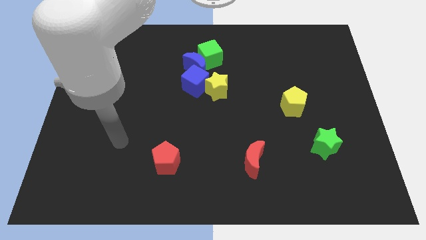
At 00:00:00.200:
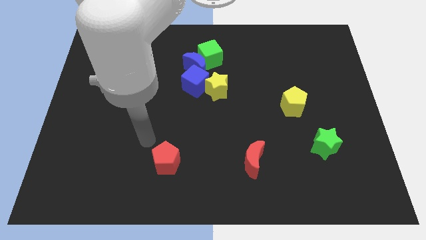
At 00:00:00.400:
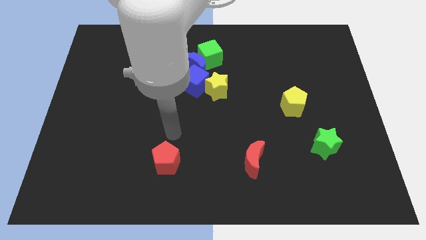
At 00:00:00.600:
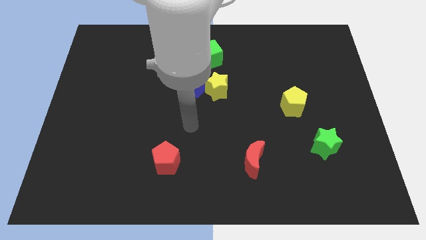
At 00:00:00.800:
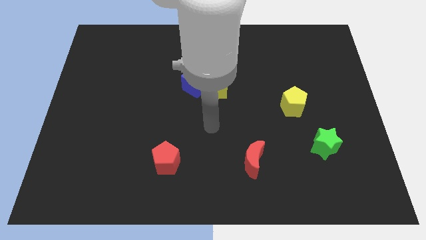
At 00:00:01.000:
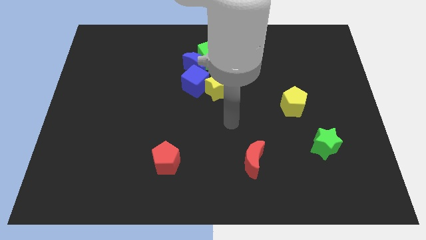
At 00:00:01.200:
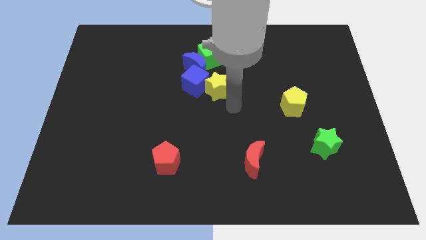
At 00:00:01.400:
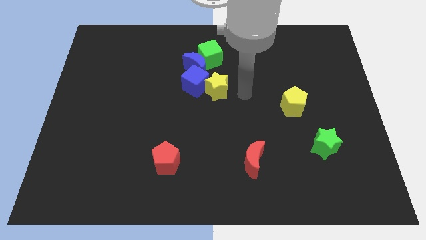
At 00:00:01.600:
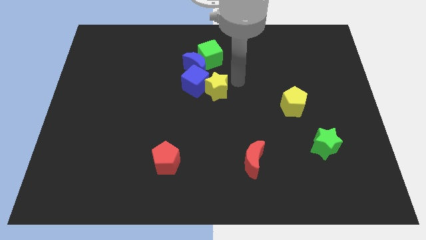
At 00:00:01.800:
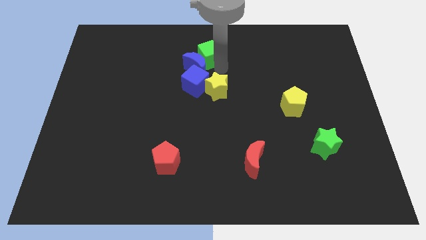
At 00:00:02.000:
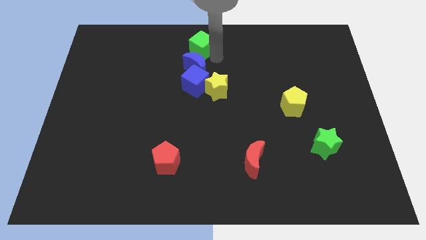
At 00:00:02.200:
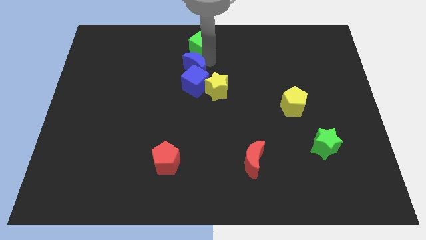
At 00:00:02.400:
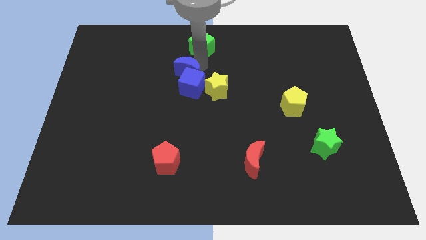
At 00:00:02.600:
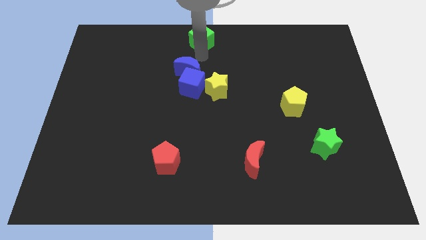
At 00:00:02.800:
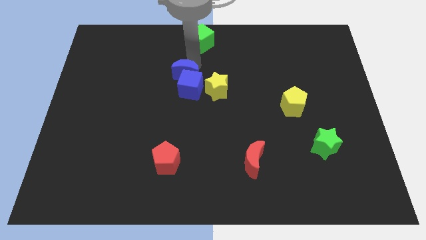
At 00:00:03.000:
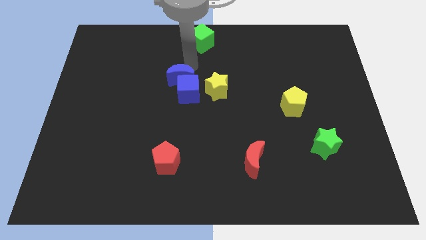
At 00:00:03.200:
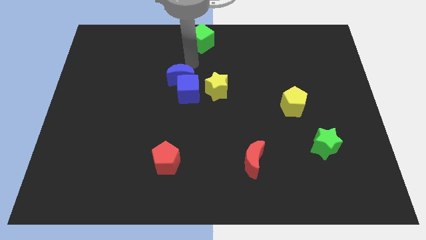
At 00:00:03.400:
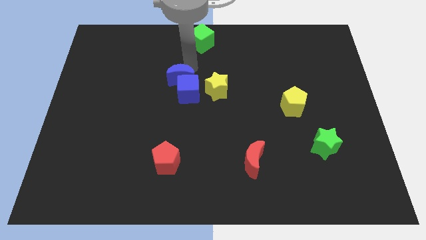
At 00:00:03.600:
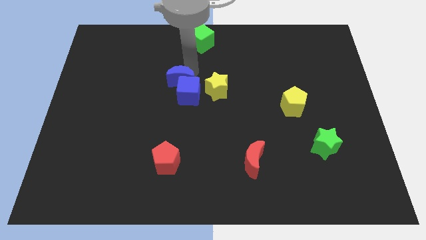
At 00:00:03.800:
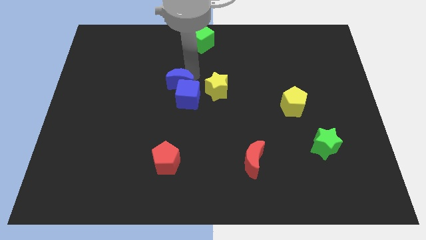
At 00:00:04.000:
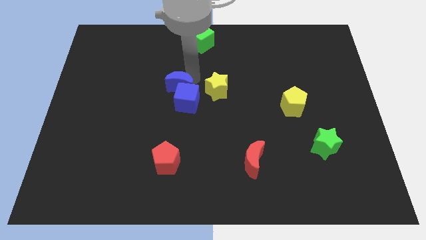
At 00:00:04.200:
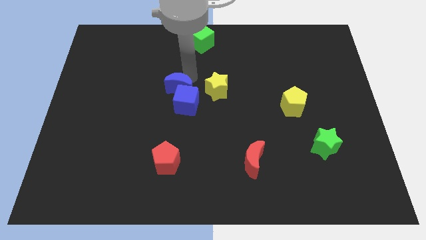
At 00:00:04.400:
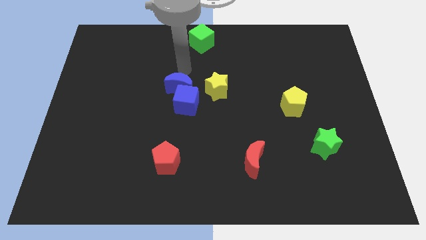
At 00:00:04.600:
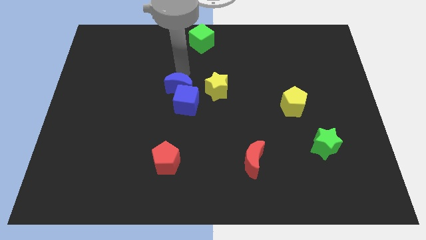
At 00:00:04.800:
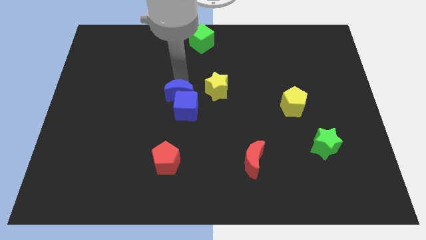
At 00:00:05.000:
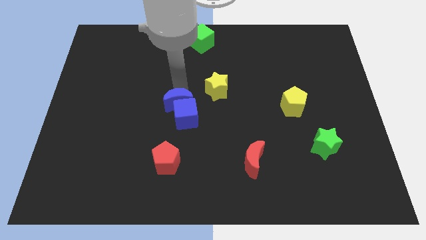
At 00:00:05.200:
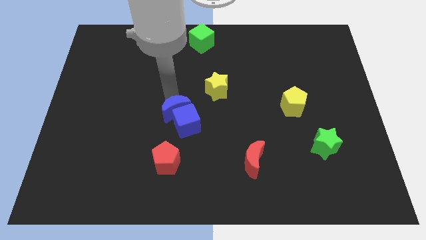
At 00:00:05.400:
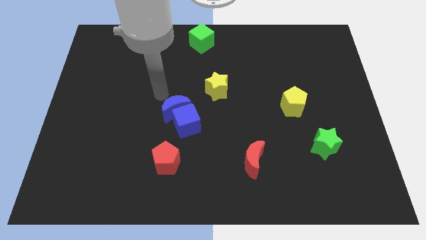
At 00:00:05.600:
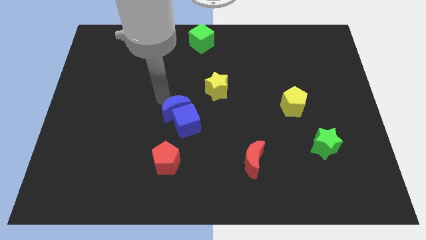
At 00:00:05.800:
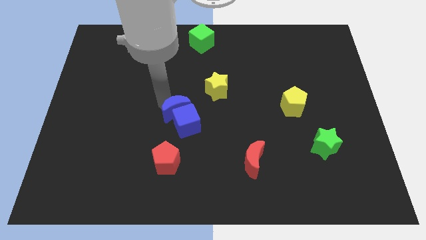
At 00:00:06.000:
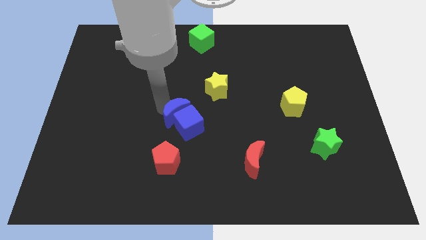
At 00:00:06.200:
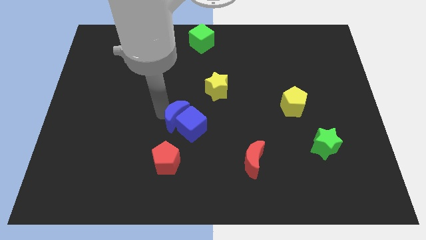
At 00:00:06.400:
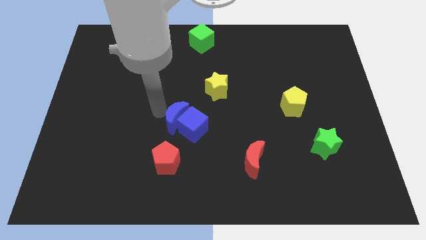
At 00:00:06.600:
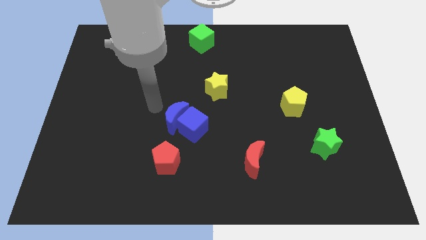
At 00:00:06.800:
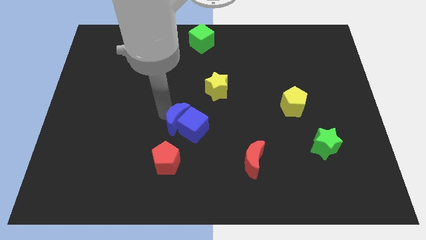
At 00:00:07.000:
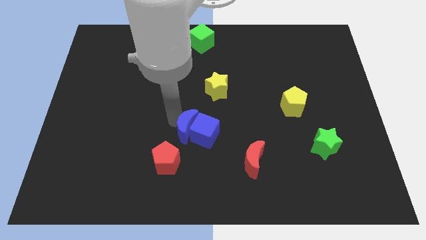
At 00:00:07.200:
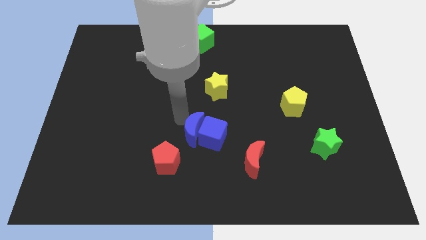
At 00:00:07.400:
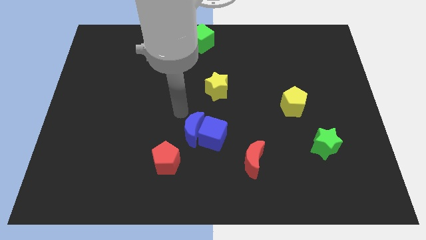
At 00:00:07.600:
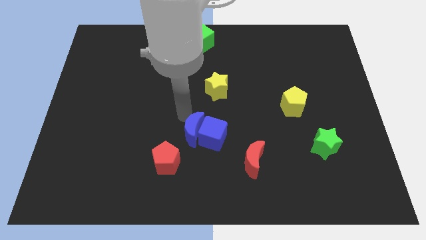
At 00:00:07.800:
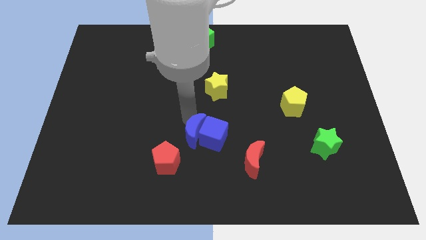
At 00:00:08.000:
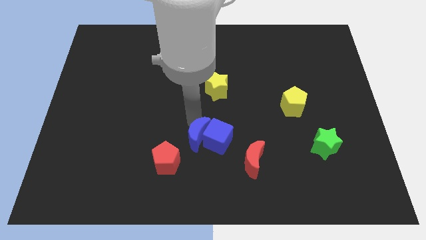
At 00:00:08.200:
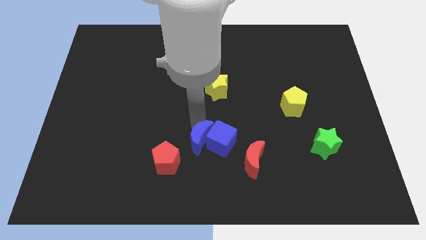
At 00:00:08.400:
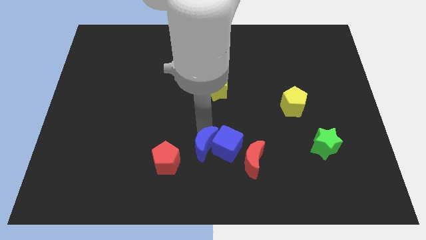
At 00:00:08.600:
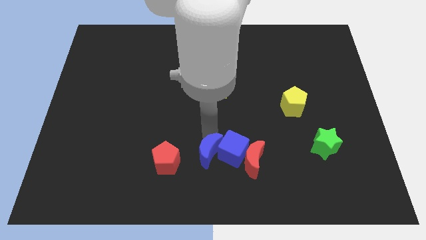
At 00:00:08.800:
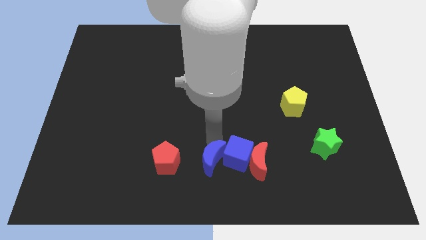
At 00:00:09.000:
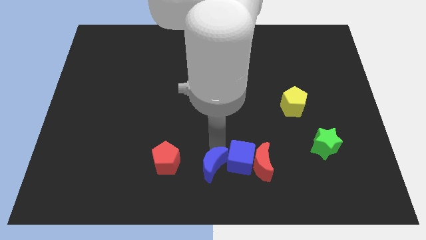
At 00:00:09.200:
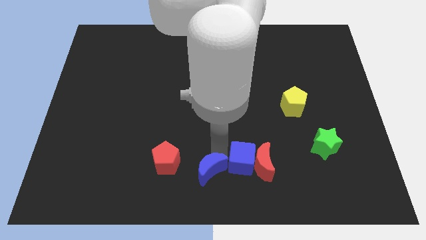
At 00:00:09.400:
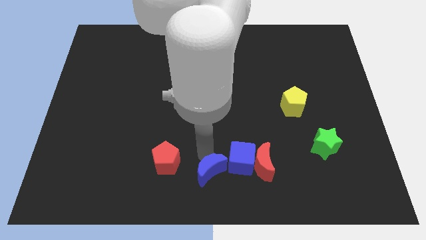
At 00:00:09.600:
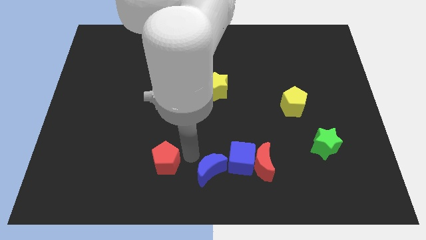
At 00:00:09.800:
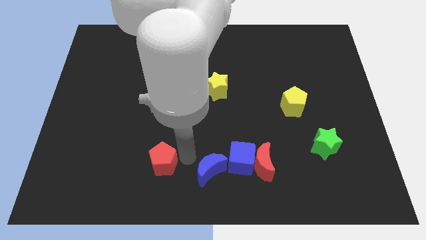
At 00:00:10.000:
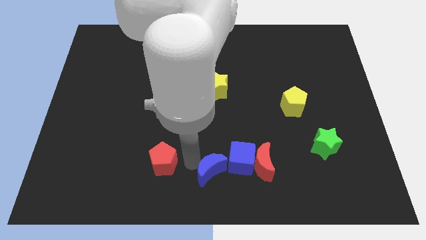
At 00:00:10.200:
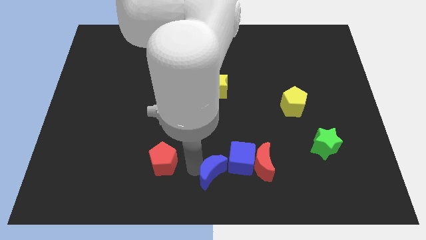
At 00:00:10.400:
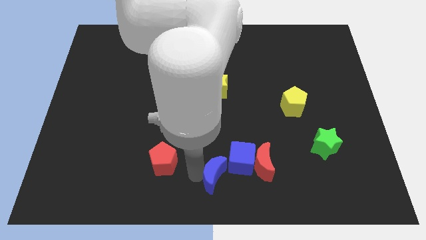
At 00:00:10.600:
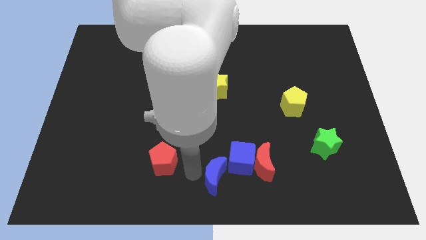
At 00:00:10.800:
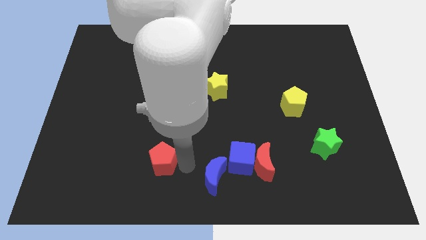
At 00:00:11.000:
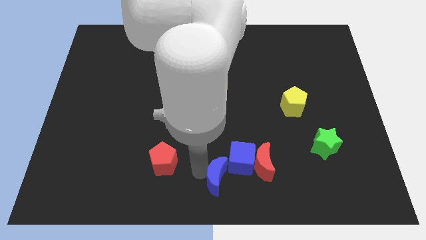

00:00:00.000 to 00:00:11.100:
put the blue moon to the bottom left side of the red moon

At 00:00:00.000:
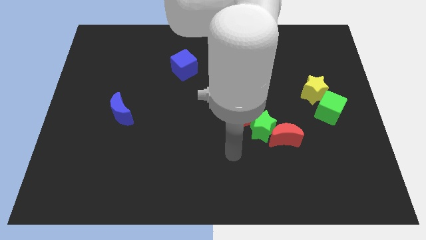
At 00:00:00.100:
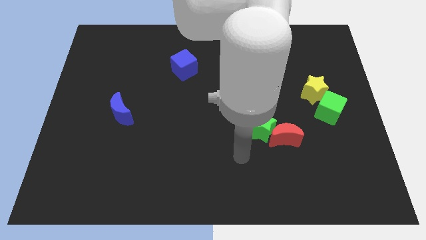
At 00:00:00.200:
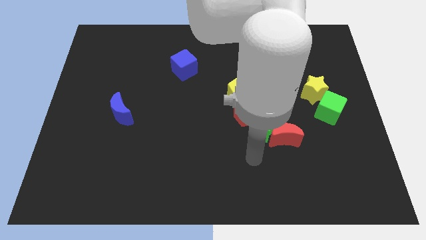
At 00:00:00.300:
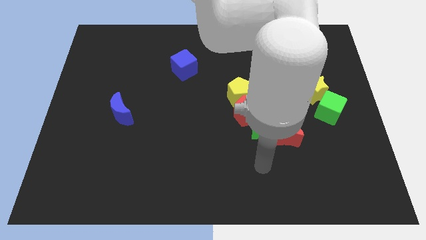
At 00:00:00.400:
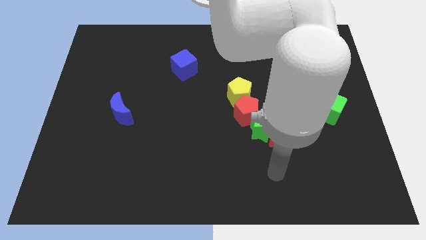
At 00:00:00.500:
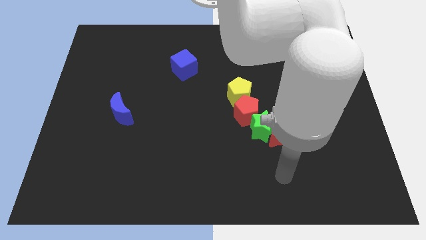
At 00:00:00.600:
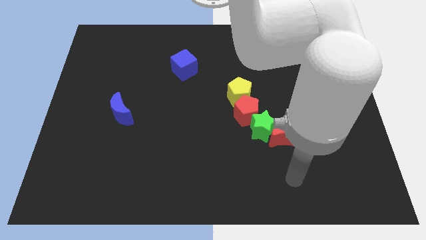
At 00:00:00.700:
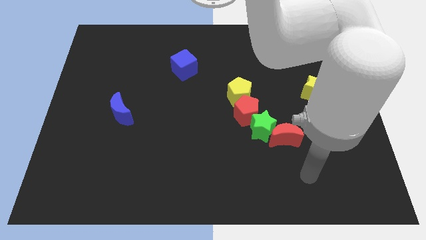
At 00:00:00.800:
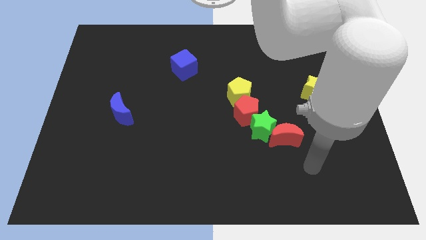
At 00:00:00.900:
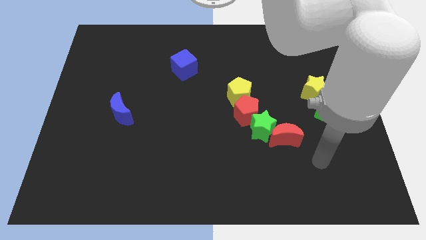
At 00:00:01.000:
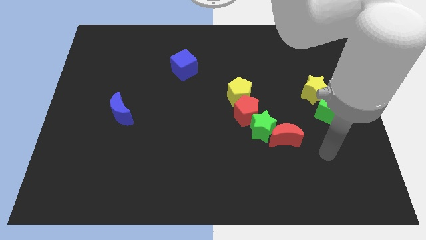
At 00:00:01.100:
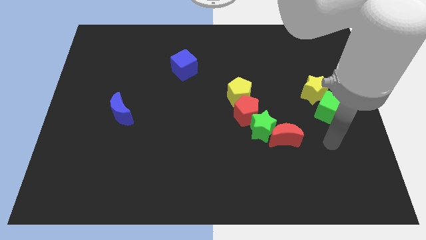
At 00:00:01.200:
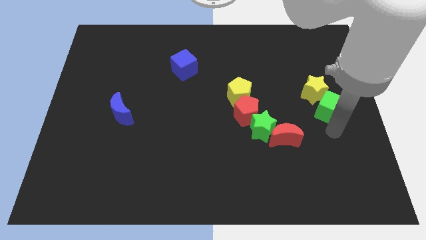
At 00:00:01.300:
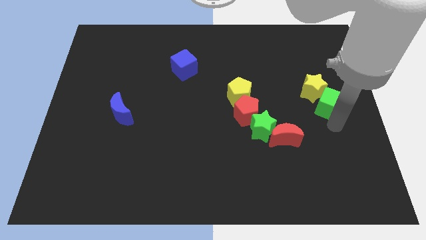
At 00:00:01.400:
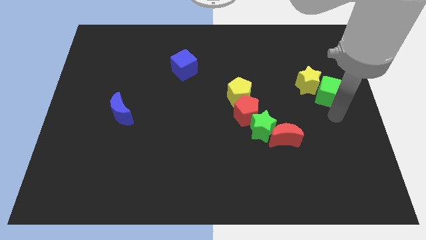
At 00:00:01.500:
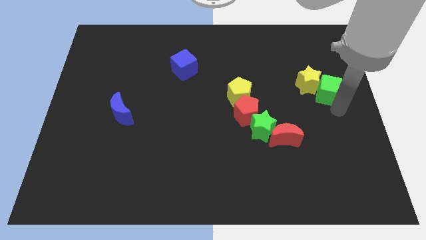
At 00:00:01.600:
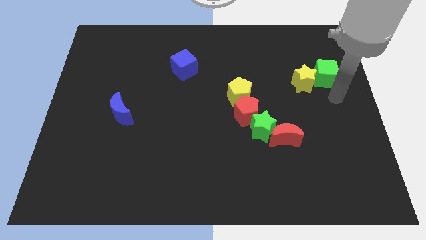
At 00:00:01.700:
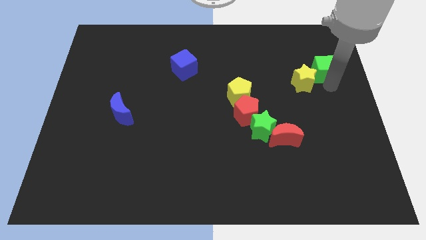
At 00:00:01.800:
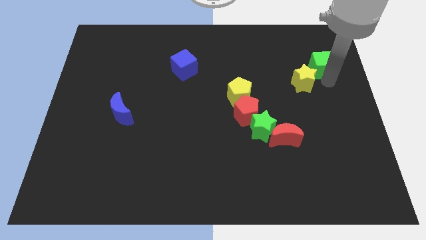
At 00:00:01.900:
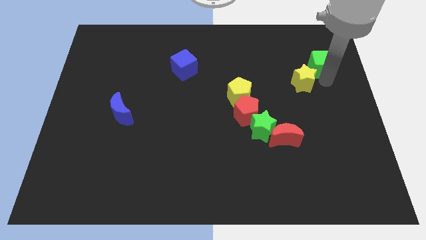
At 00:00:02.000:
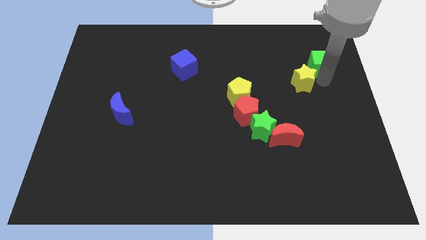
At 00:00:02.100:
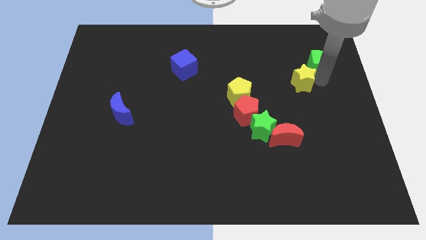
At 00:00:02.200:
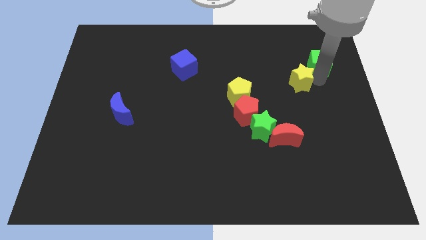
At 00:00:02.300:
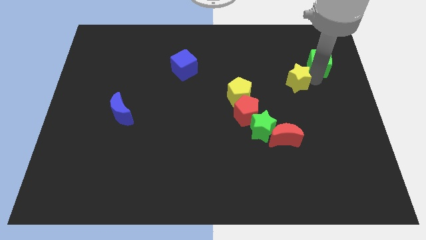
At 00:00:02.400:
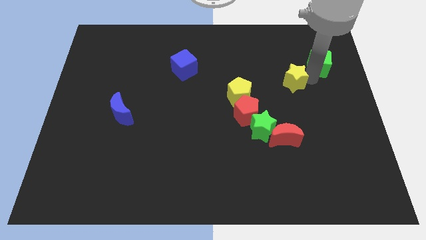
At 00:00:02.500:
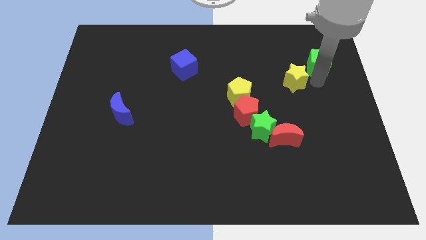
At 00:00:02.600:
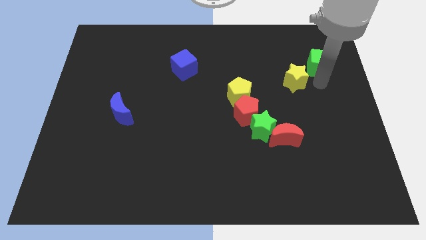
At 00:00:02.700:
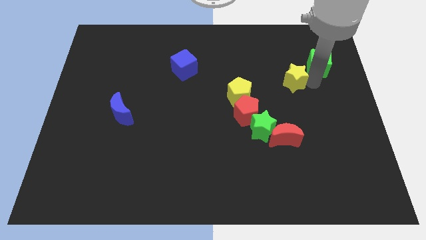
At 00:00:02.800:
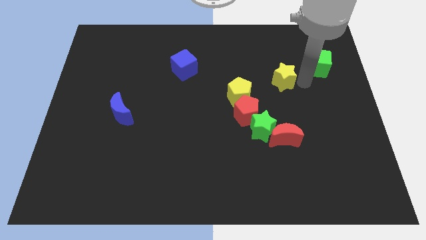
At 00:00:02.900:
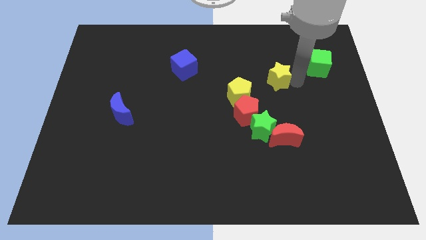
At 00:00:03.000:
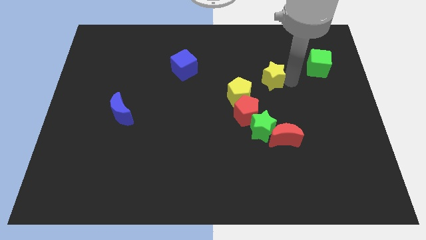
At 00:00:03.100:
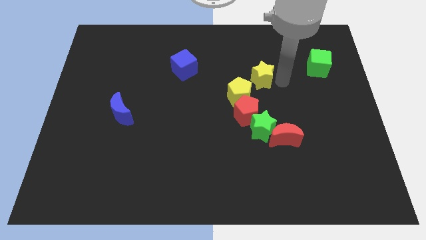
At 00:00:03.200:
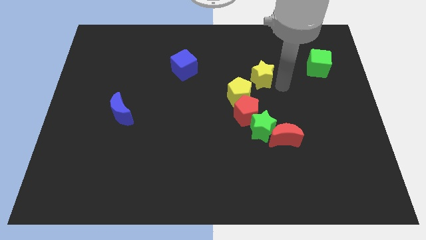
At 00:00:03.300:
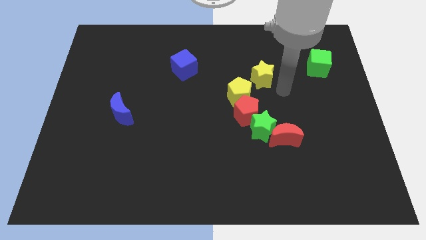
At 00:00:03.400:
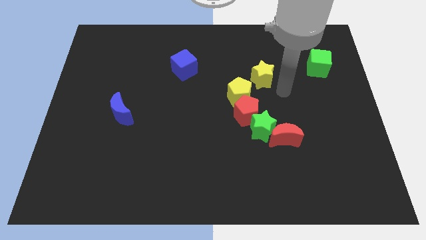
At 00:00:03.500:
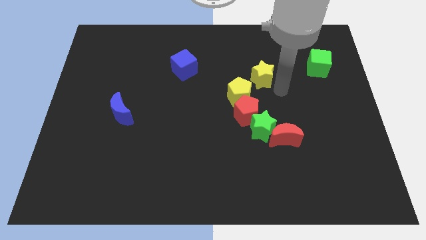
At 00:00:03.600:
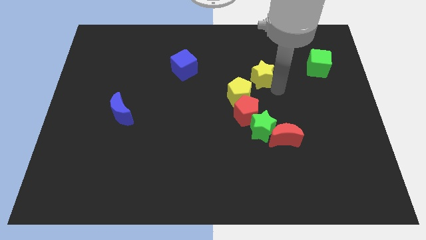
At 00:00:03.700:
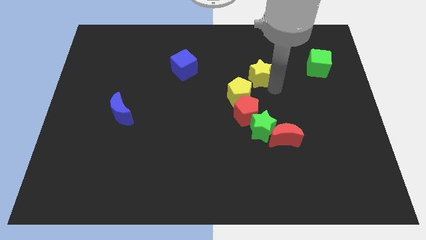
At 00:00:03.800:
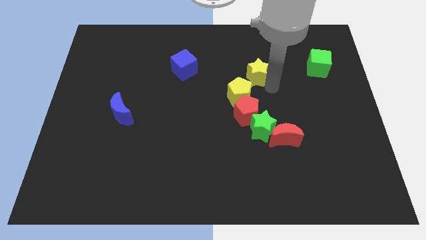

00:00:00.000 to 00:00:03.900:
put the yellow star above the yellow pentagon
